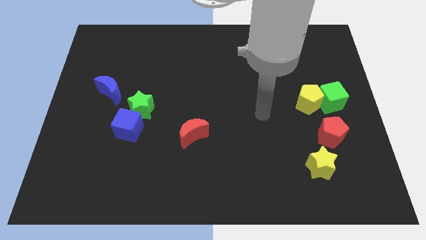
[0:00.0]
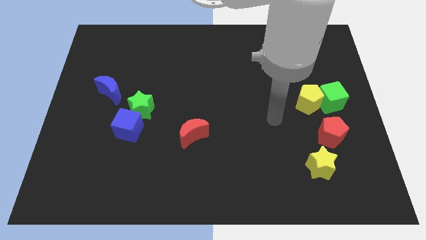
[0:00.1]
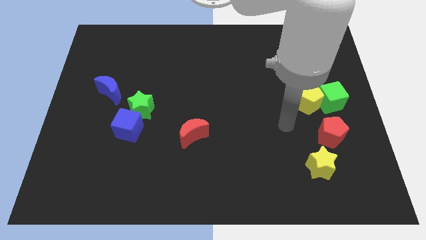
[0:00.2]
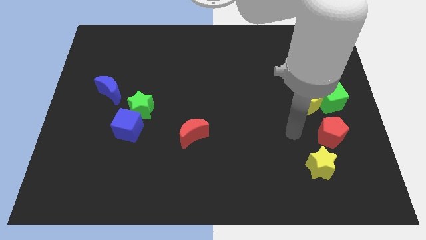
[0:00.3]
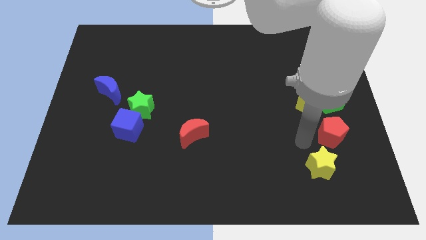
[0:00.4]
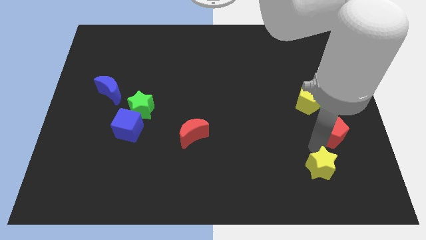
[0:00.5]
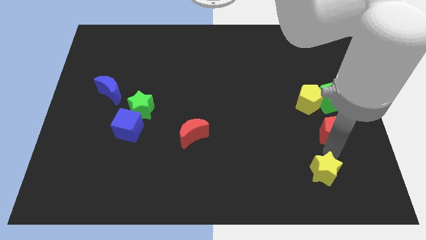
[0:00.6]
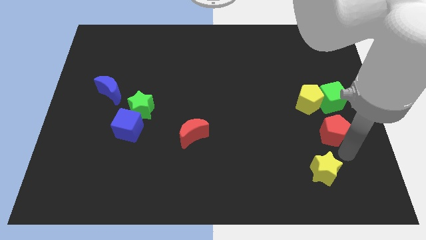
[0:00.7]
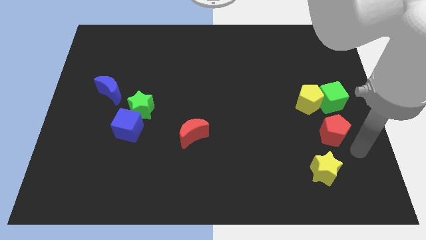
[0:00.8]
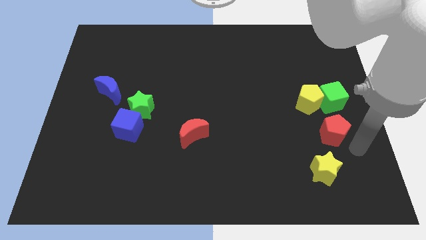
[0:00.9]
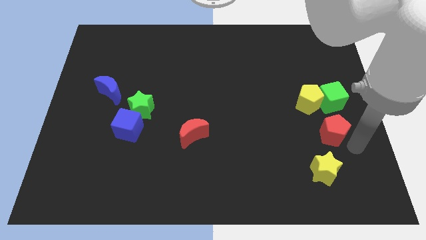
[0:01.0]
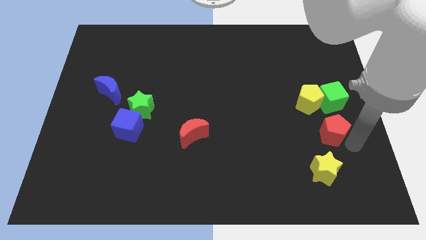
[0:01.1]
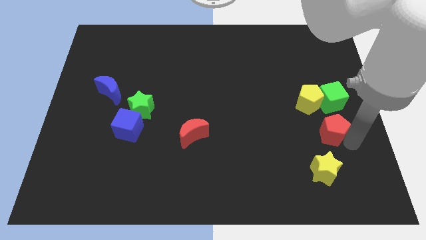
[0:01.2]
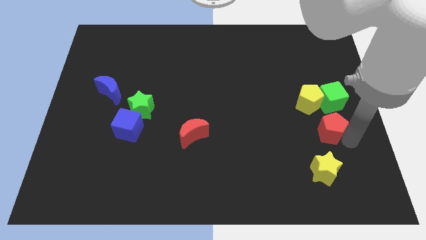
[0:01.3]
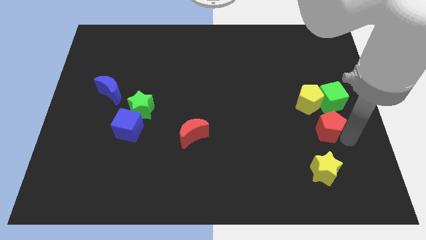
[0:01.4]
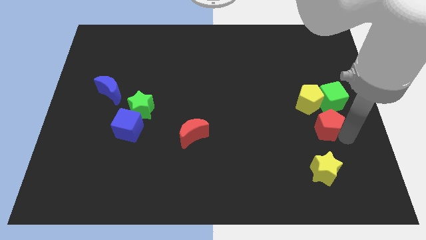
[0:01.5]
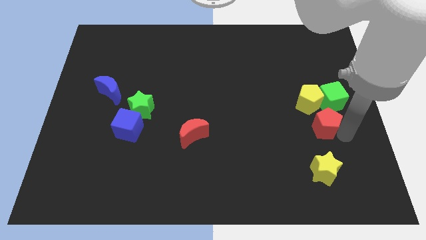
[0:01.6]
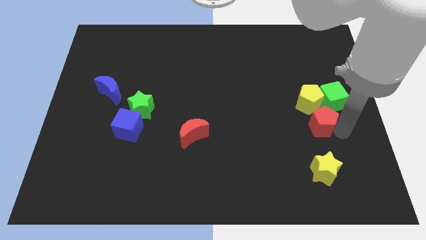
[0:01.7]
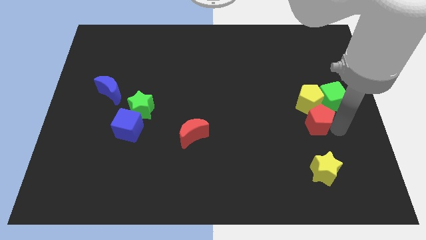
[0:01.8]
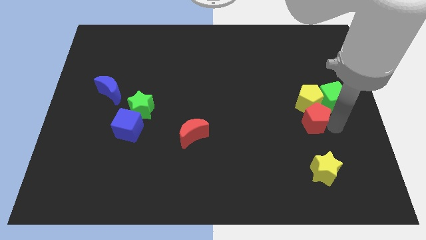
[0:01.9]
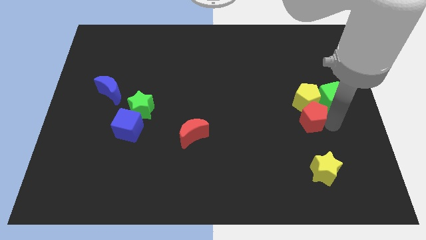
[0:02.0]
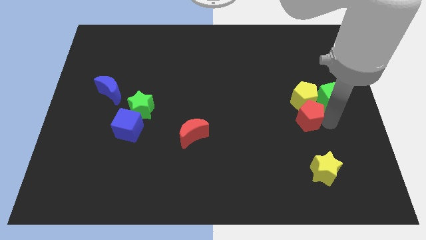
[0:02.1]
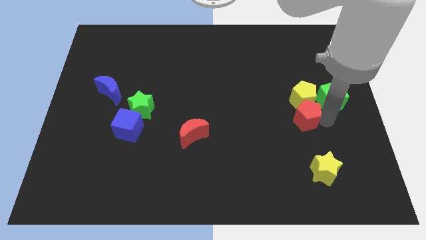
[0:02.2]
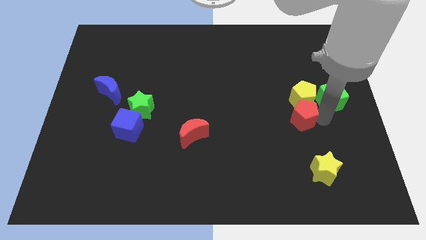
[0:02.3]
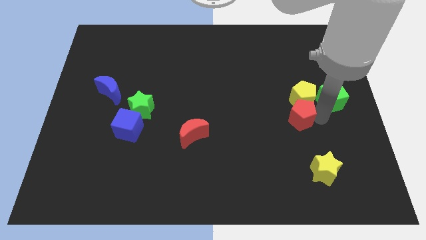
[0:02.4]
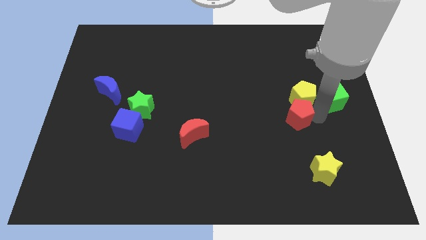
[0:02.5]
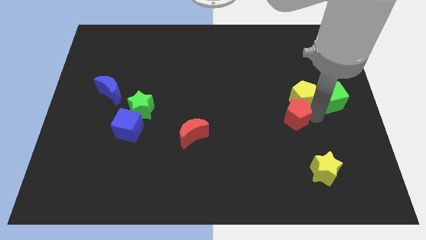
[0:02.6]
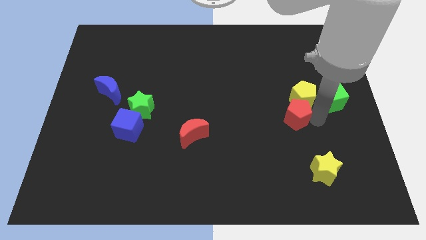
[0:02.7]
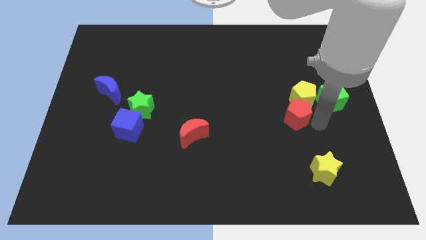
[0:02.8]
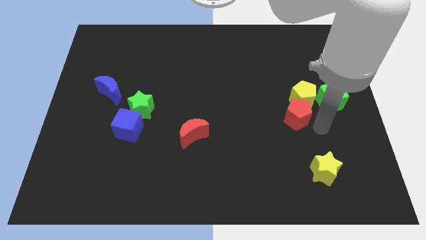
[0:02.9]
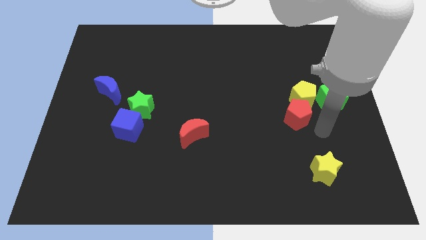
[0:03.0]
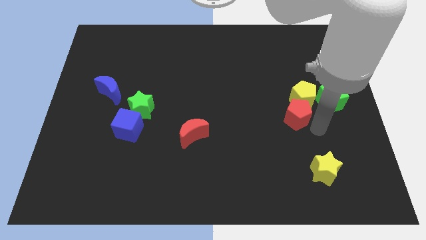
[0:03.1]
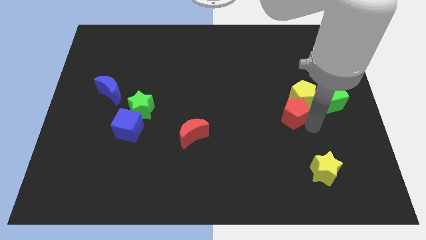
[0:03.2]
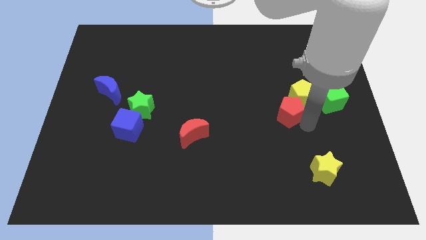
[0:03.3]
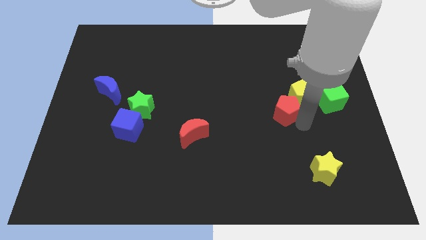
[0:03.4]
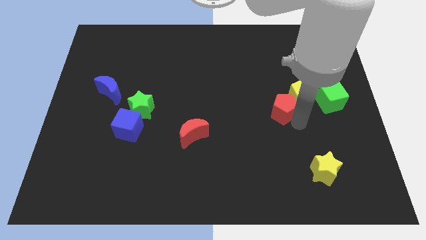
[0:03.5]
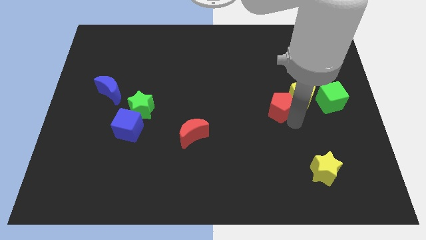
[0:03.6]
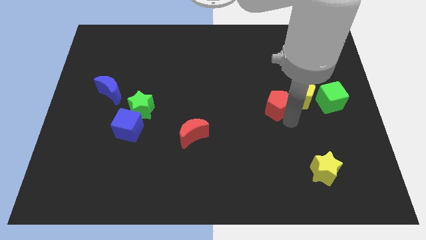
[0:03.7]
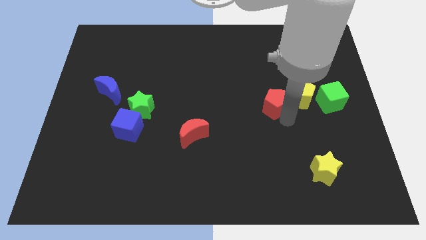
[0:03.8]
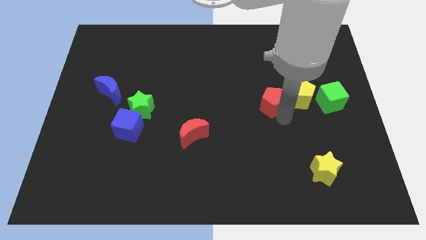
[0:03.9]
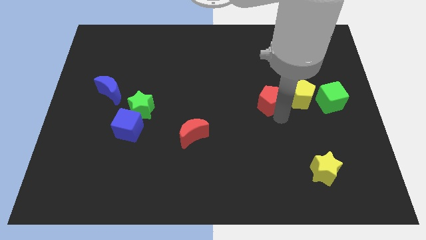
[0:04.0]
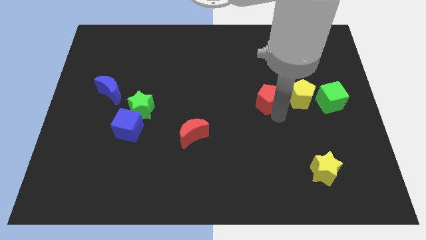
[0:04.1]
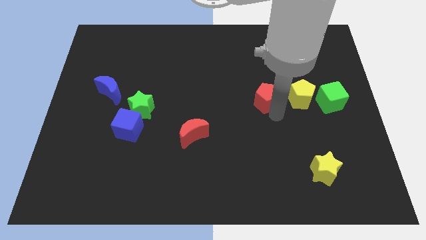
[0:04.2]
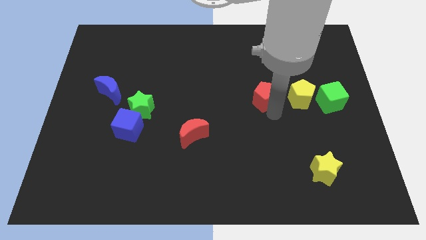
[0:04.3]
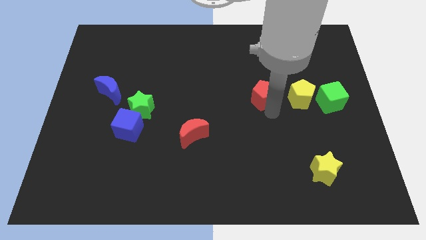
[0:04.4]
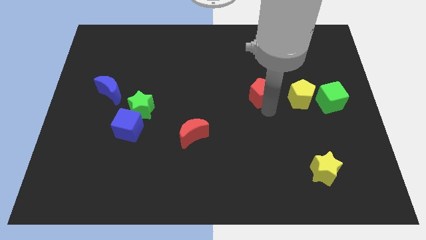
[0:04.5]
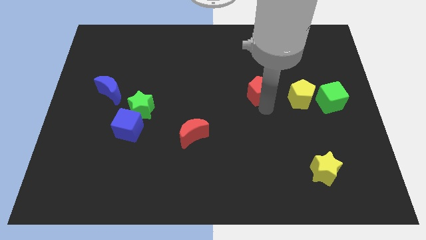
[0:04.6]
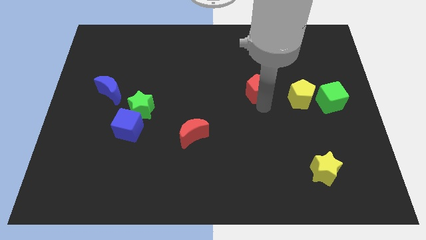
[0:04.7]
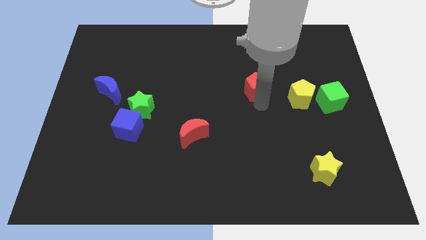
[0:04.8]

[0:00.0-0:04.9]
slide the red pentagon up and left

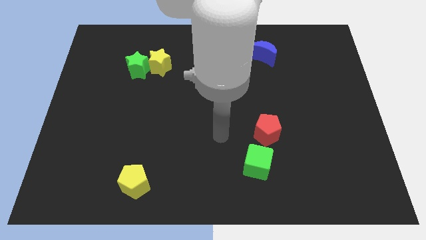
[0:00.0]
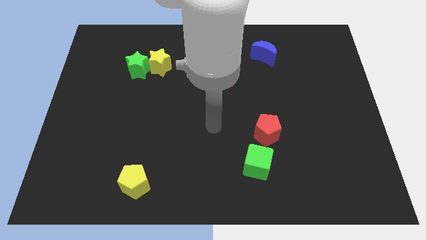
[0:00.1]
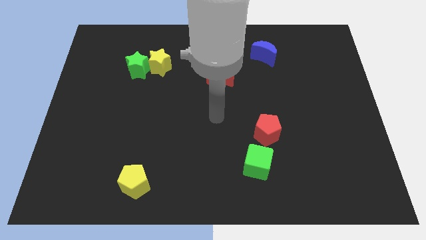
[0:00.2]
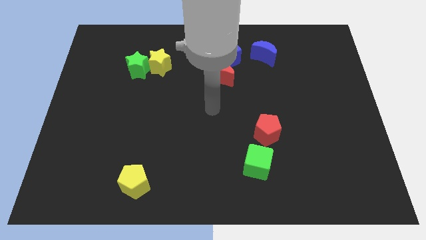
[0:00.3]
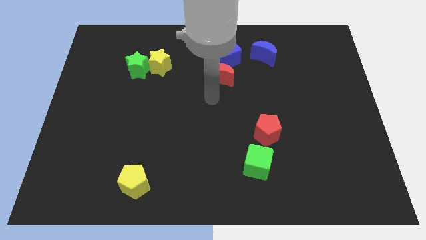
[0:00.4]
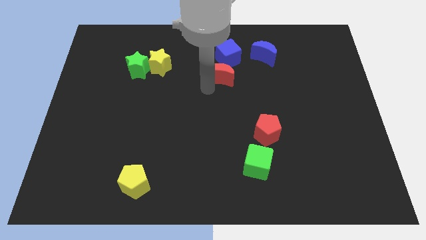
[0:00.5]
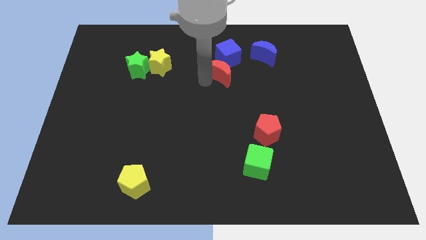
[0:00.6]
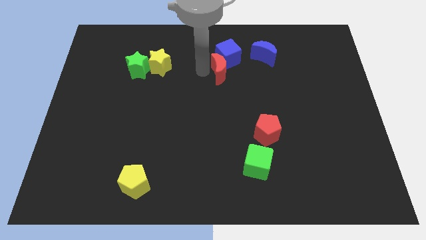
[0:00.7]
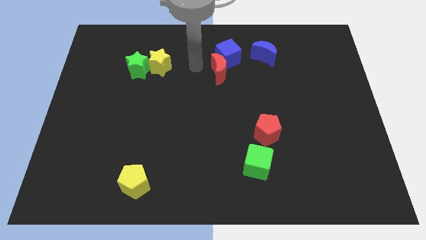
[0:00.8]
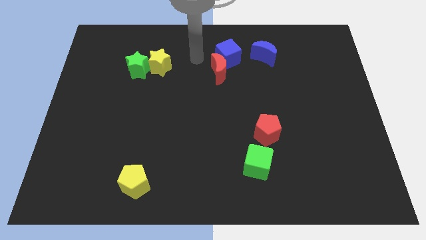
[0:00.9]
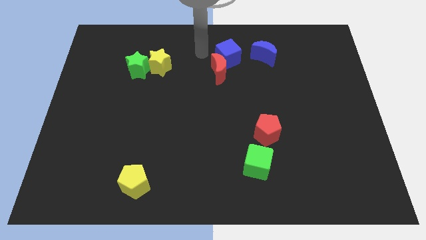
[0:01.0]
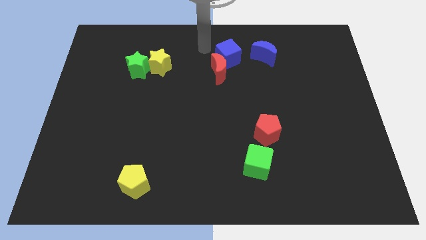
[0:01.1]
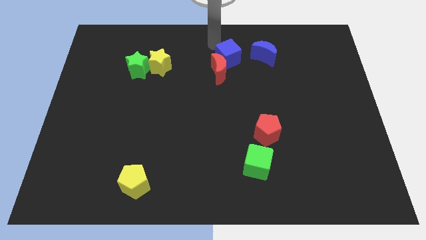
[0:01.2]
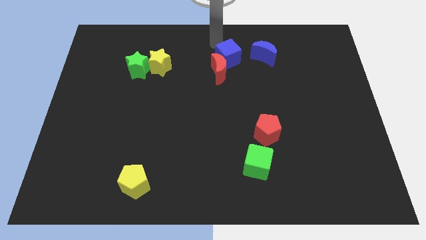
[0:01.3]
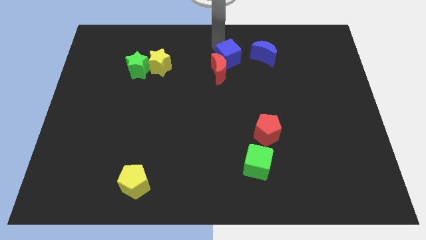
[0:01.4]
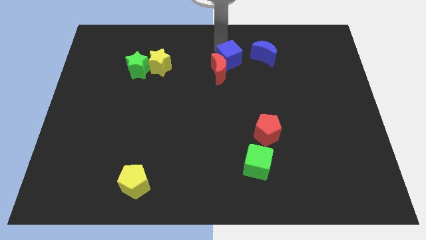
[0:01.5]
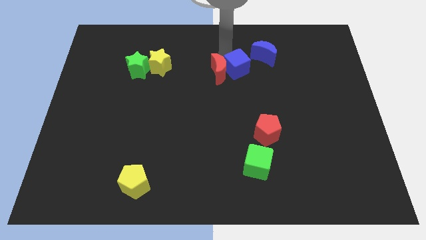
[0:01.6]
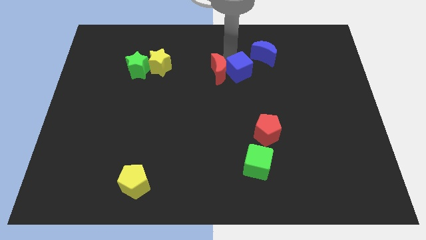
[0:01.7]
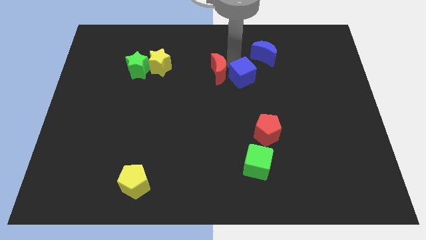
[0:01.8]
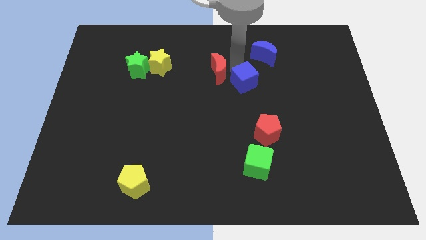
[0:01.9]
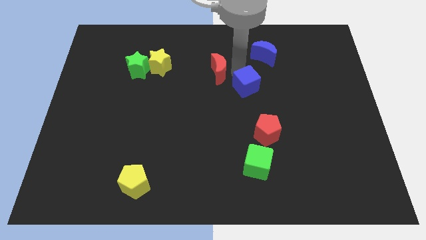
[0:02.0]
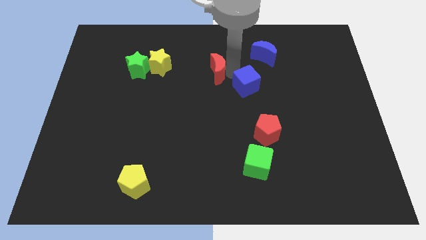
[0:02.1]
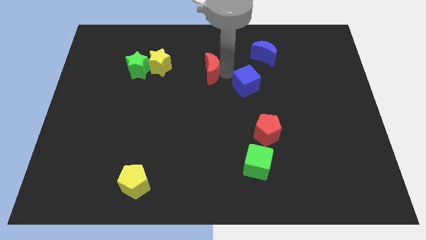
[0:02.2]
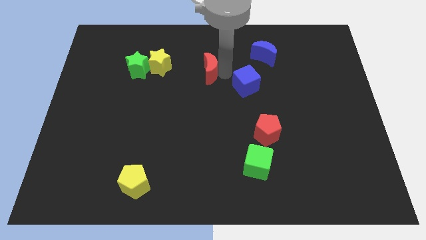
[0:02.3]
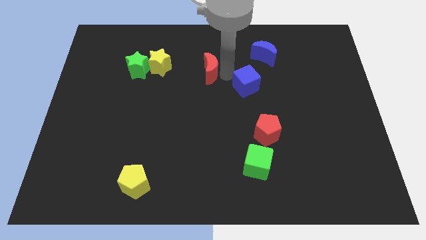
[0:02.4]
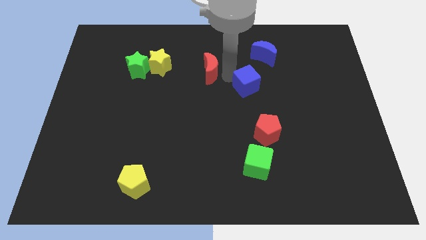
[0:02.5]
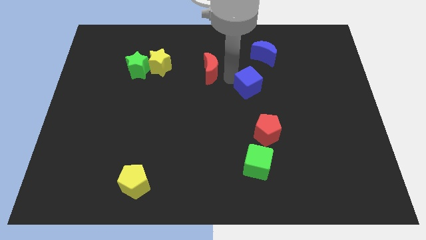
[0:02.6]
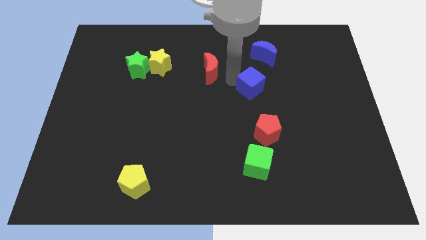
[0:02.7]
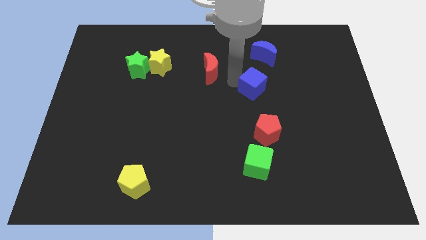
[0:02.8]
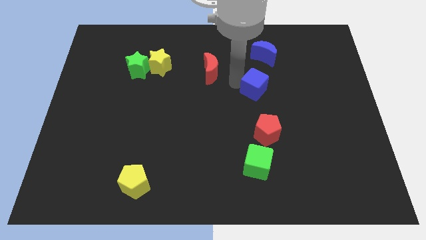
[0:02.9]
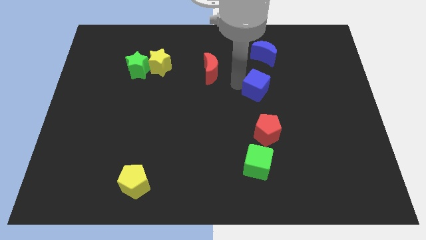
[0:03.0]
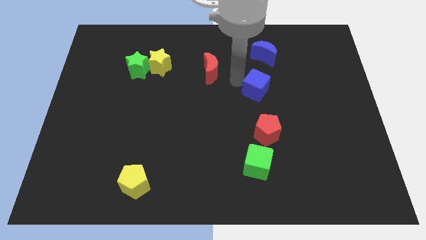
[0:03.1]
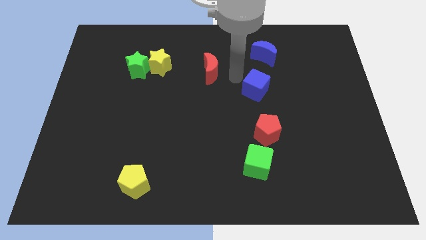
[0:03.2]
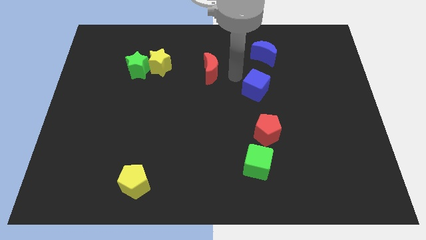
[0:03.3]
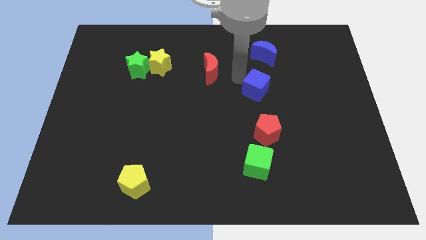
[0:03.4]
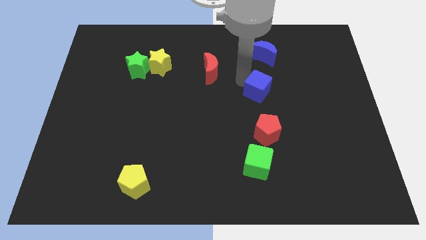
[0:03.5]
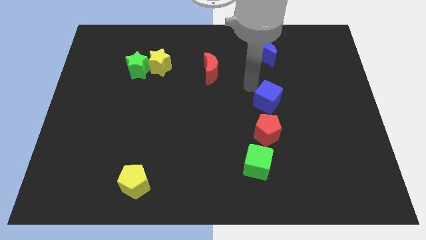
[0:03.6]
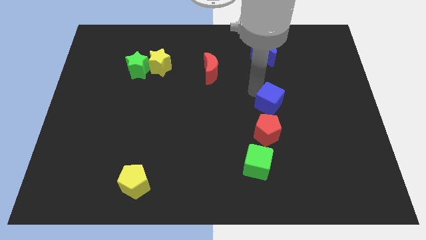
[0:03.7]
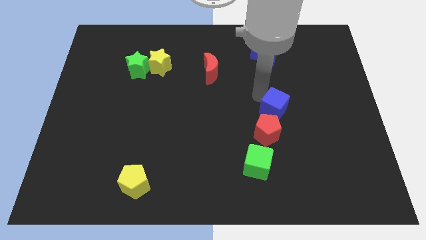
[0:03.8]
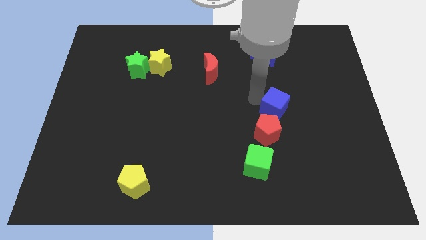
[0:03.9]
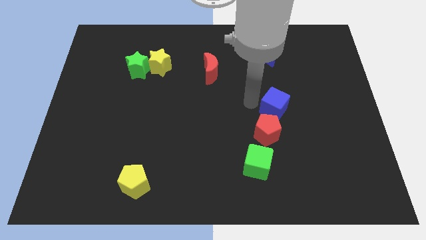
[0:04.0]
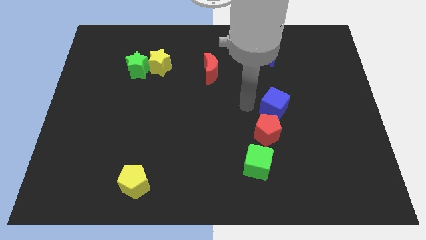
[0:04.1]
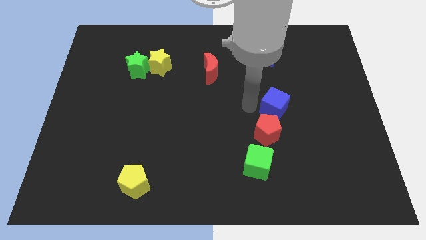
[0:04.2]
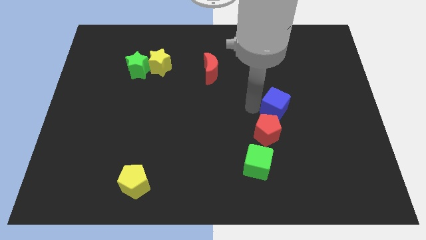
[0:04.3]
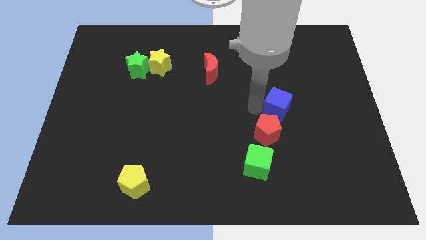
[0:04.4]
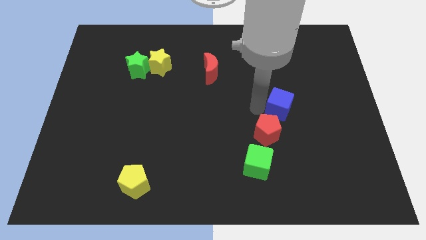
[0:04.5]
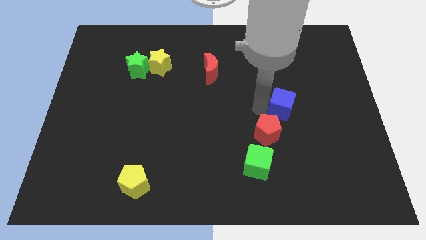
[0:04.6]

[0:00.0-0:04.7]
move the blue cube diagonally down and right
